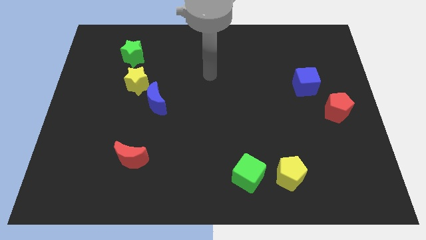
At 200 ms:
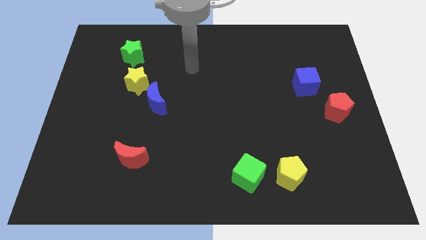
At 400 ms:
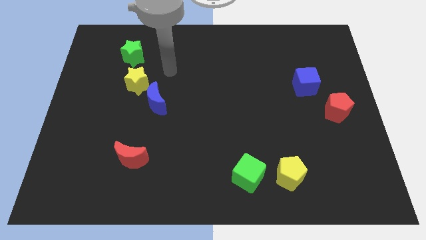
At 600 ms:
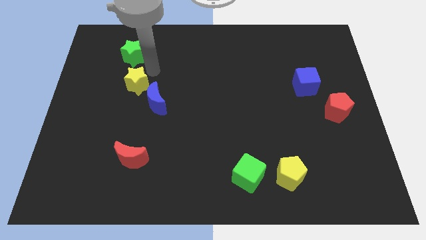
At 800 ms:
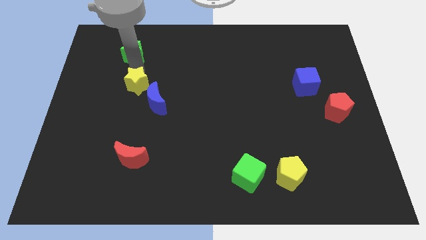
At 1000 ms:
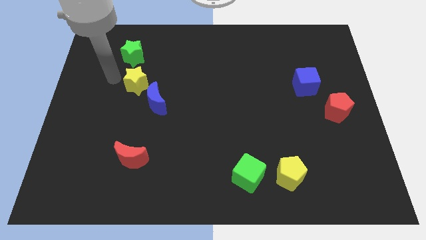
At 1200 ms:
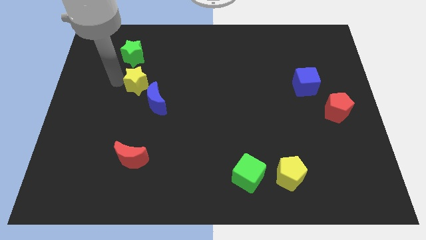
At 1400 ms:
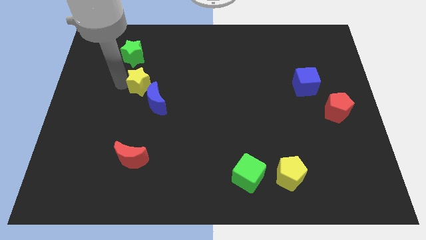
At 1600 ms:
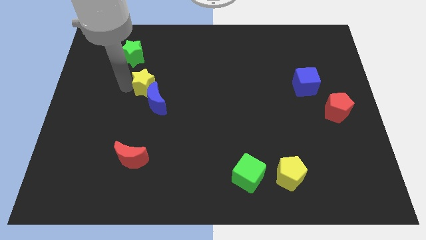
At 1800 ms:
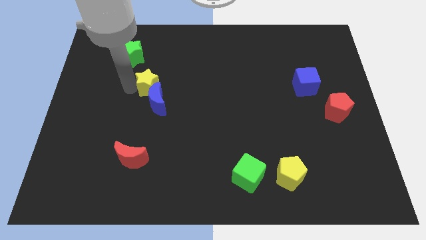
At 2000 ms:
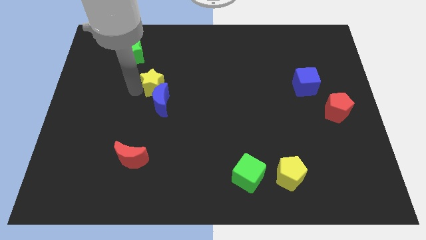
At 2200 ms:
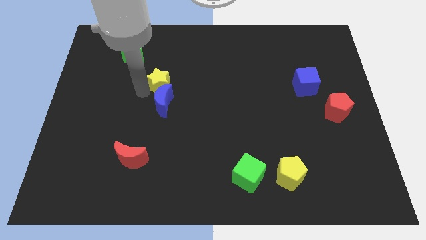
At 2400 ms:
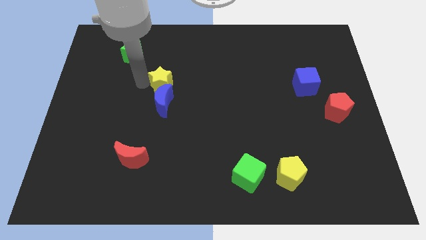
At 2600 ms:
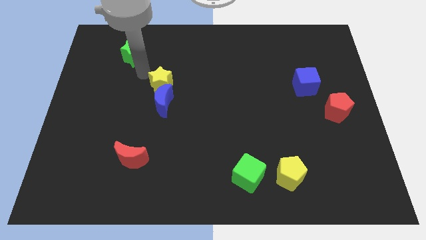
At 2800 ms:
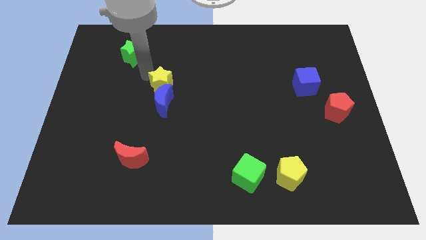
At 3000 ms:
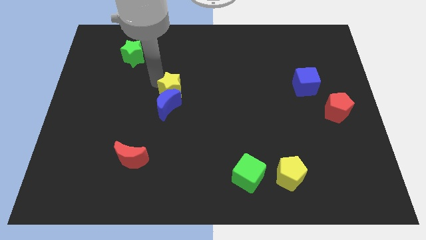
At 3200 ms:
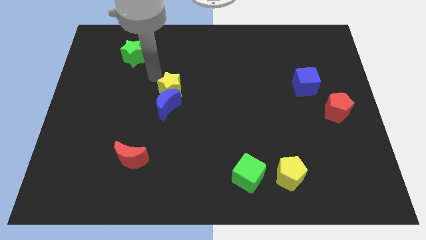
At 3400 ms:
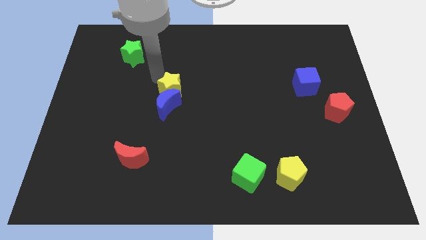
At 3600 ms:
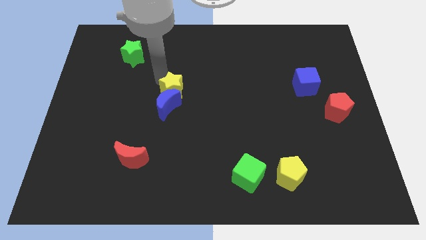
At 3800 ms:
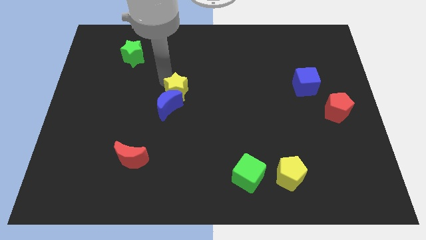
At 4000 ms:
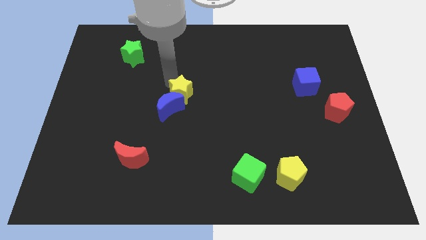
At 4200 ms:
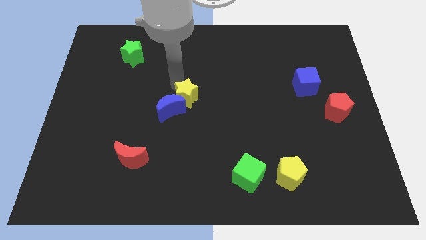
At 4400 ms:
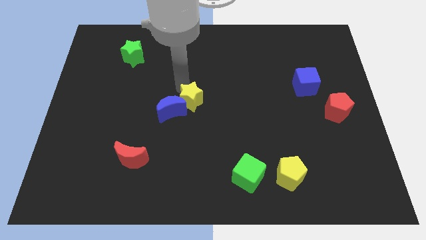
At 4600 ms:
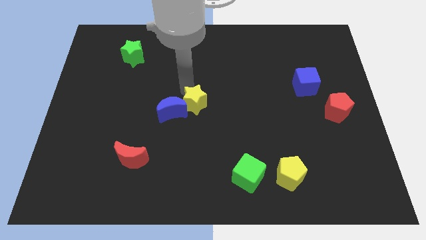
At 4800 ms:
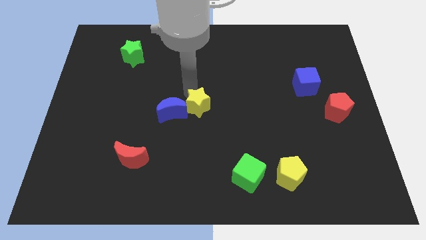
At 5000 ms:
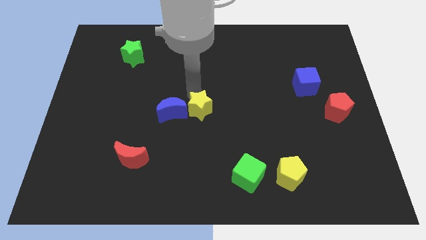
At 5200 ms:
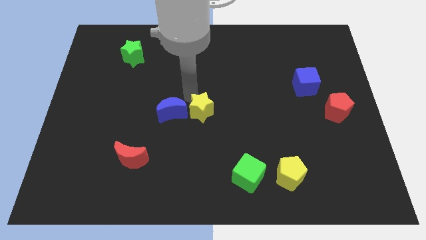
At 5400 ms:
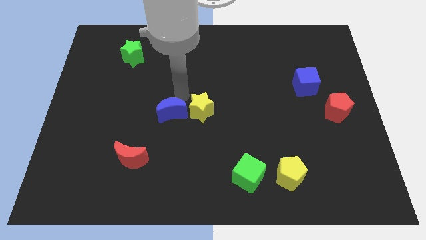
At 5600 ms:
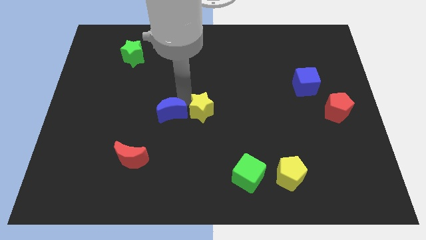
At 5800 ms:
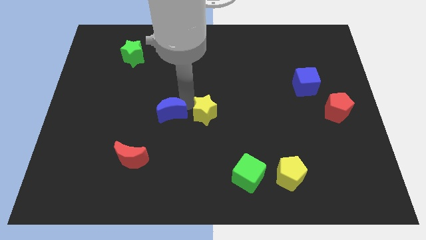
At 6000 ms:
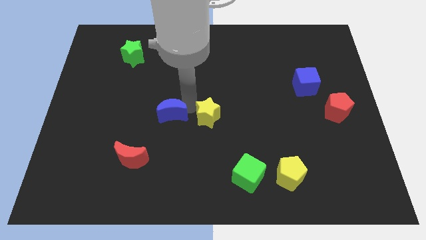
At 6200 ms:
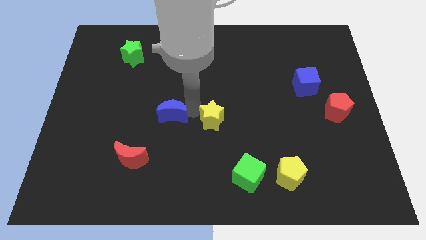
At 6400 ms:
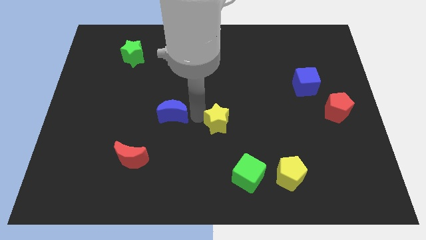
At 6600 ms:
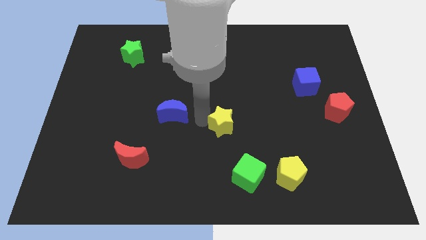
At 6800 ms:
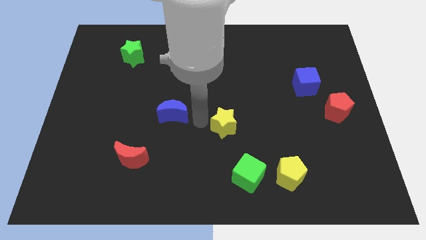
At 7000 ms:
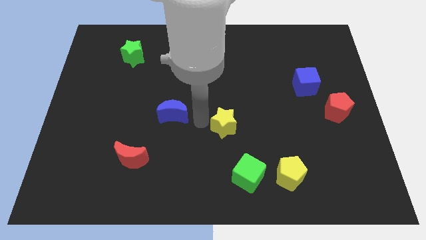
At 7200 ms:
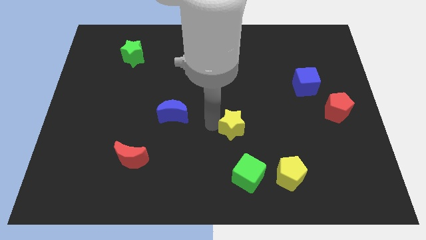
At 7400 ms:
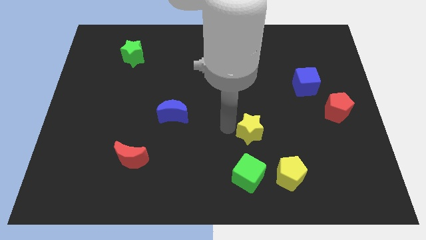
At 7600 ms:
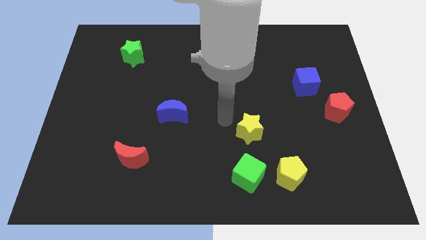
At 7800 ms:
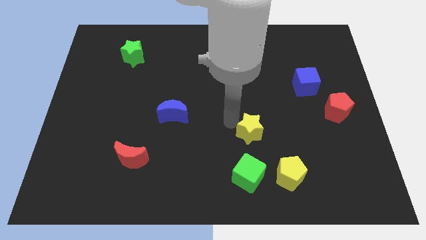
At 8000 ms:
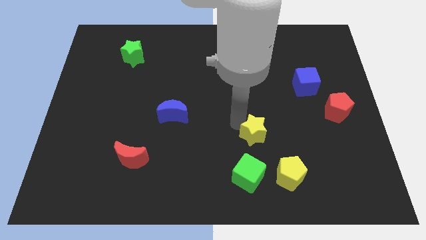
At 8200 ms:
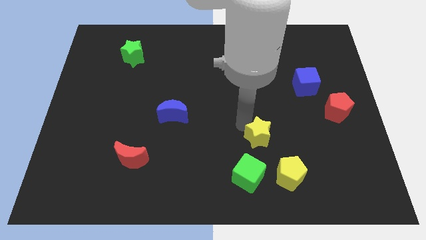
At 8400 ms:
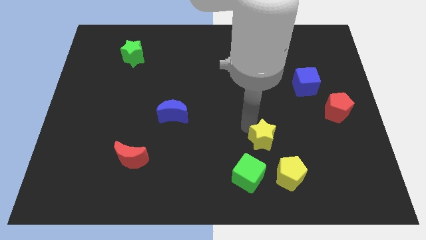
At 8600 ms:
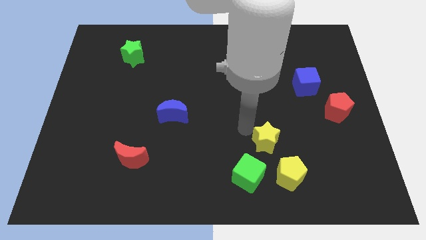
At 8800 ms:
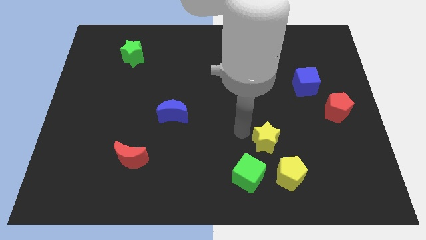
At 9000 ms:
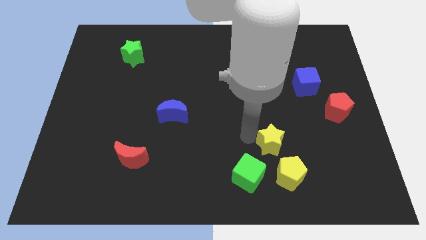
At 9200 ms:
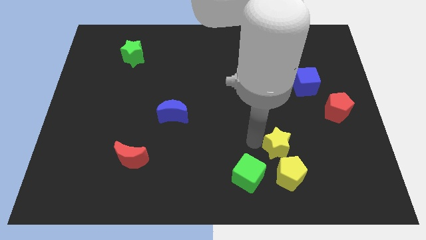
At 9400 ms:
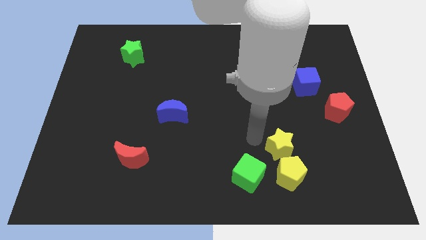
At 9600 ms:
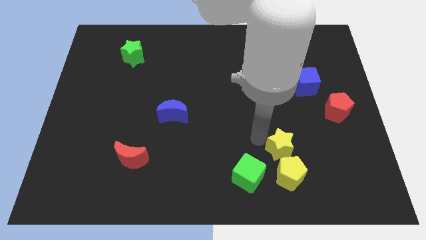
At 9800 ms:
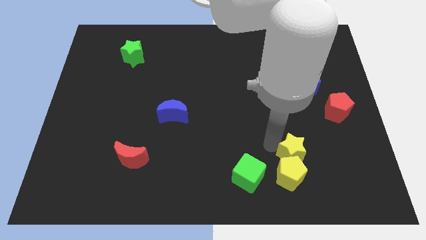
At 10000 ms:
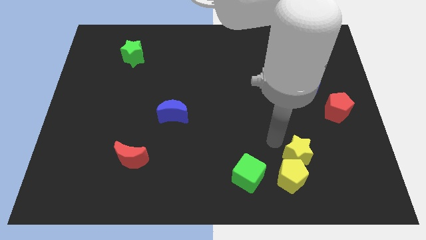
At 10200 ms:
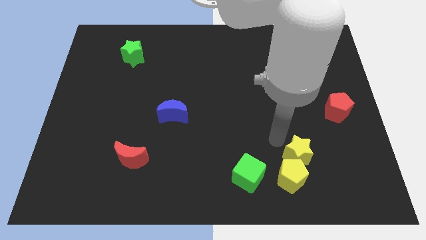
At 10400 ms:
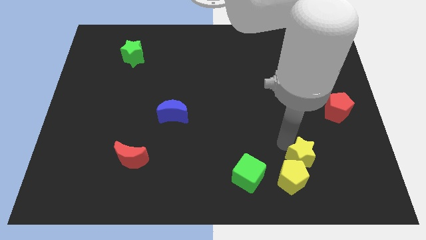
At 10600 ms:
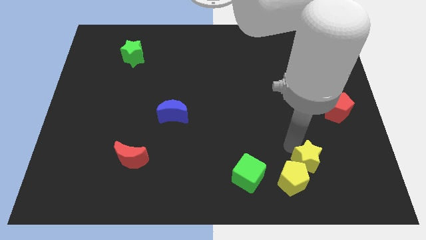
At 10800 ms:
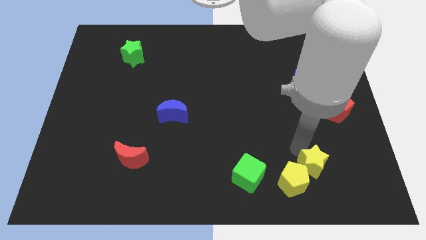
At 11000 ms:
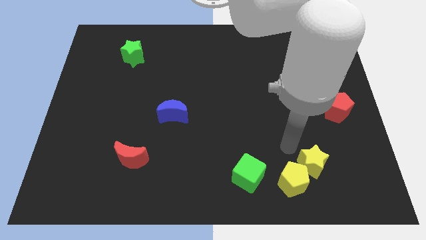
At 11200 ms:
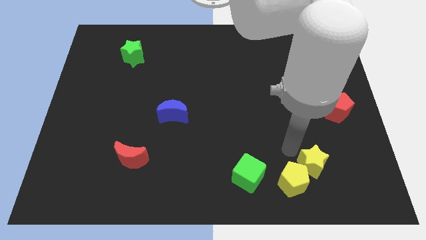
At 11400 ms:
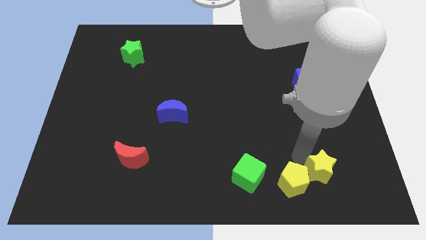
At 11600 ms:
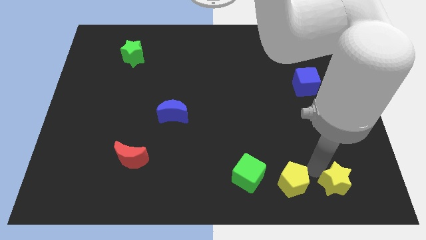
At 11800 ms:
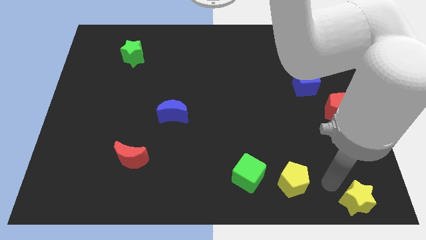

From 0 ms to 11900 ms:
push the yellow star to the bottom right
